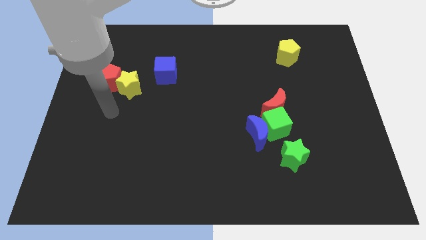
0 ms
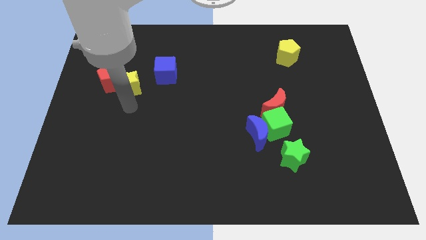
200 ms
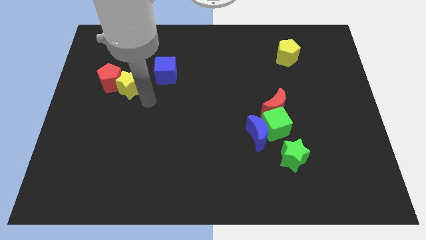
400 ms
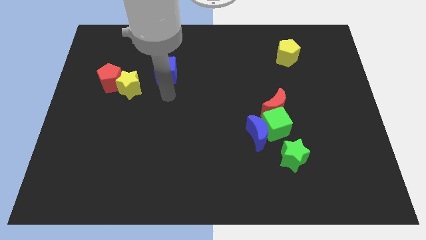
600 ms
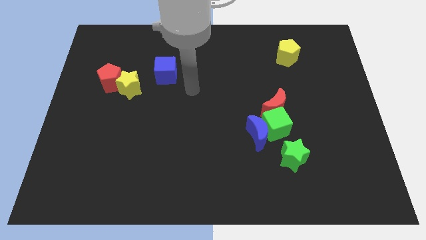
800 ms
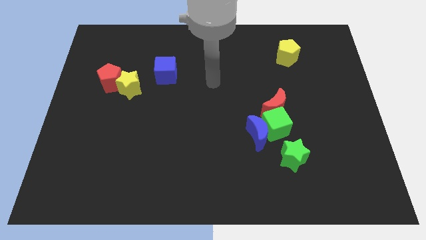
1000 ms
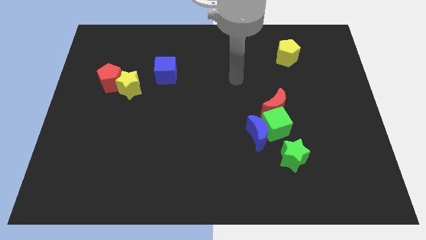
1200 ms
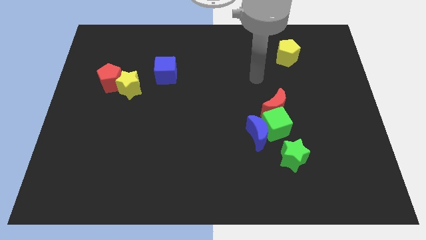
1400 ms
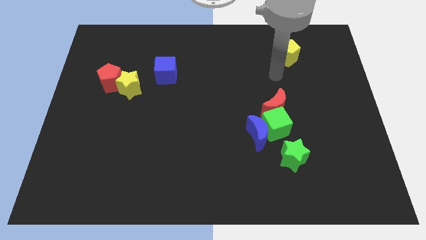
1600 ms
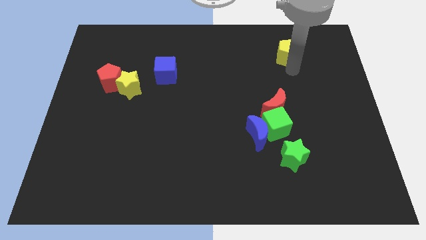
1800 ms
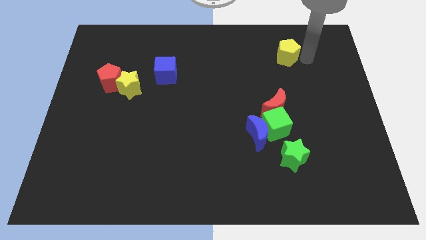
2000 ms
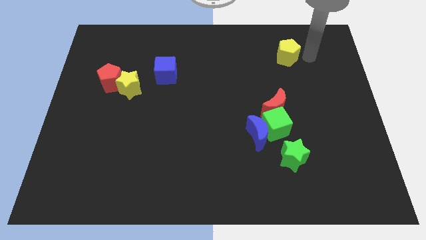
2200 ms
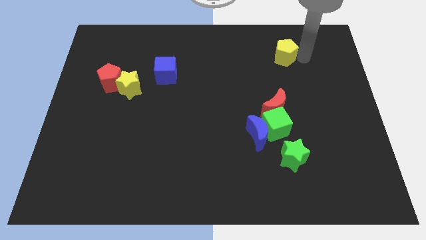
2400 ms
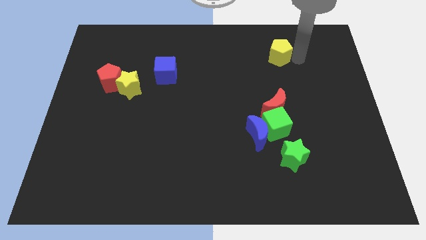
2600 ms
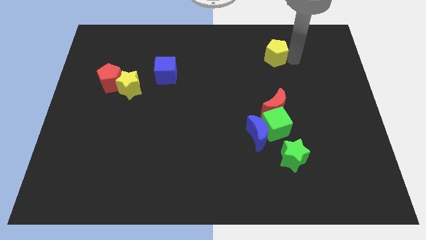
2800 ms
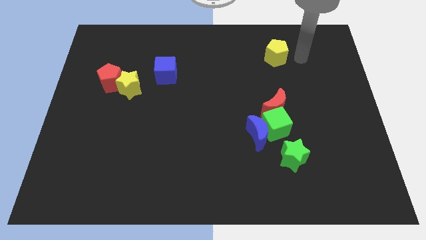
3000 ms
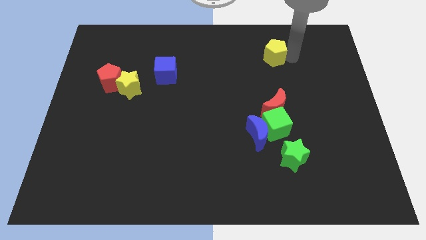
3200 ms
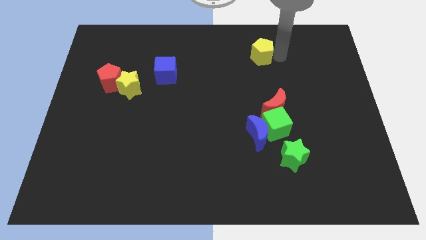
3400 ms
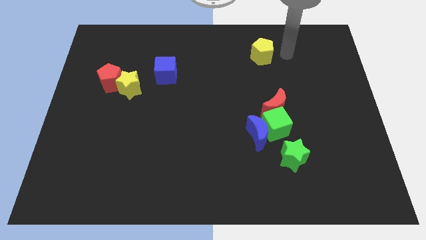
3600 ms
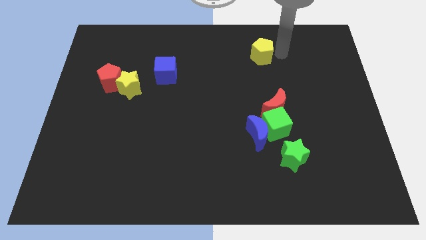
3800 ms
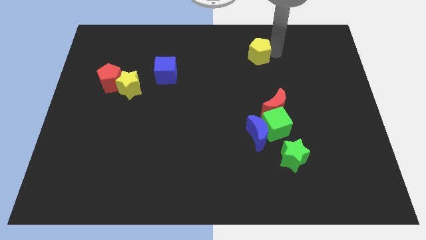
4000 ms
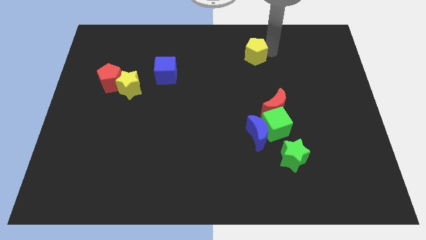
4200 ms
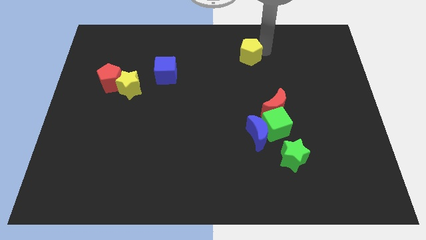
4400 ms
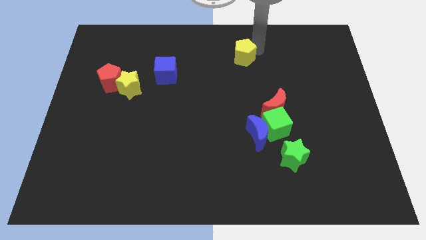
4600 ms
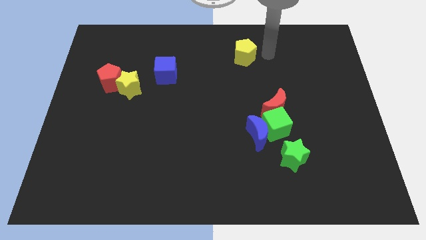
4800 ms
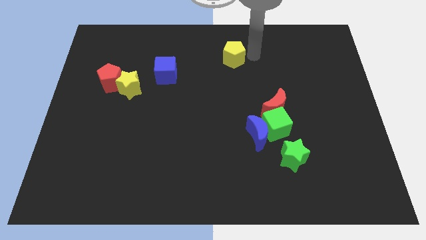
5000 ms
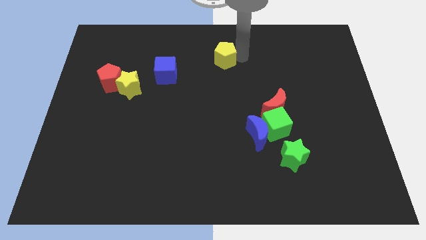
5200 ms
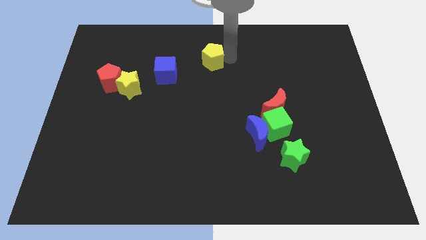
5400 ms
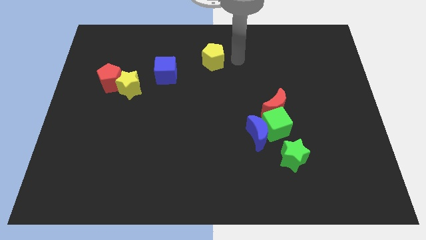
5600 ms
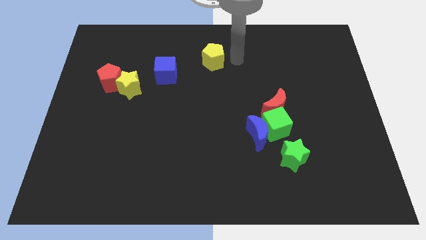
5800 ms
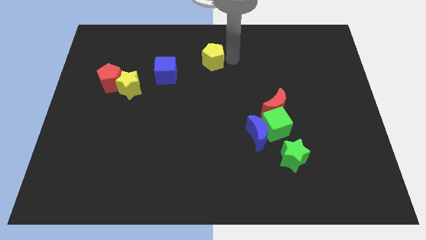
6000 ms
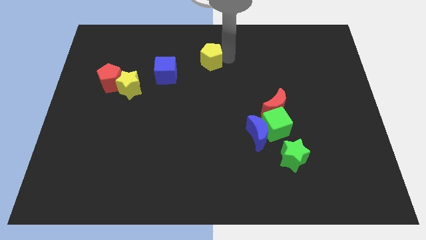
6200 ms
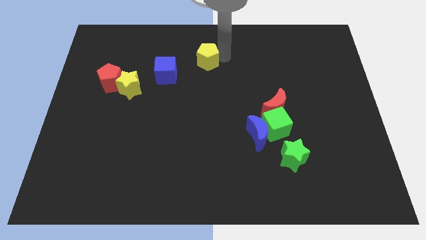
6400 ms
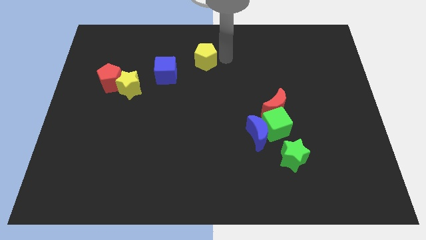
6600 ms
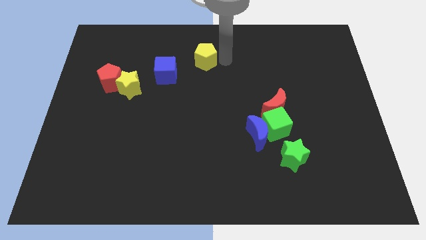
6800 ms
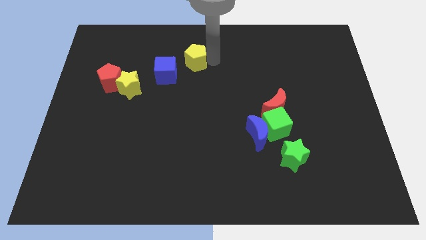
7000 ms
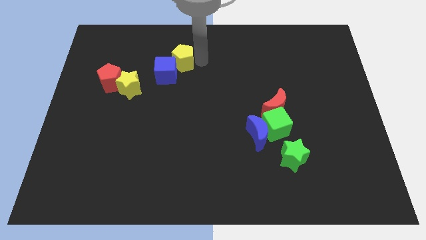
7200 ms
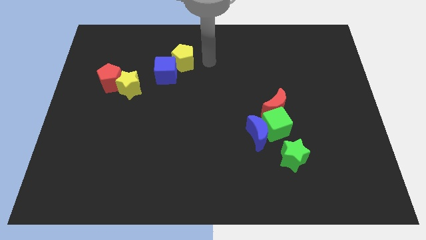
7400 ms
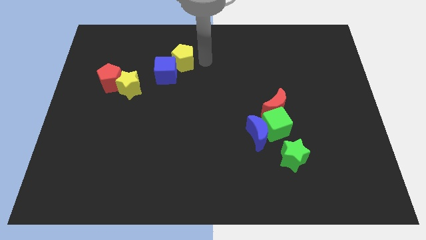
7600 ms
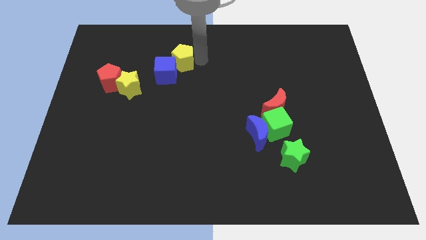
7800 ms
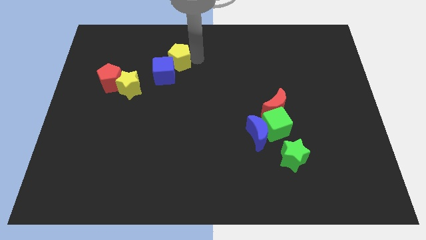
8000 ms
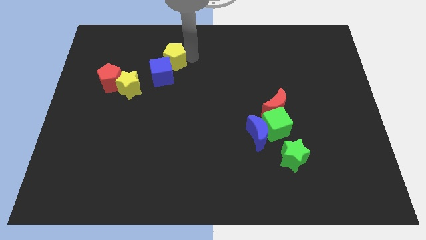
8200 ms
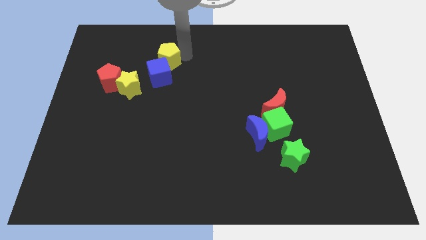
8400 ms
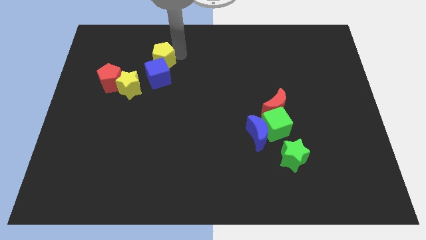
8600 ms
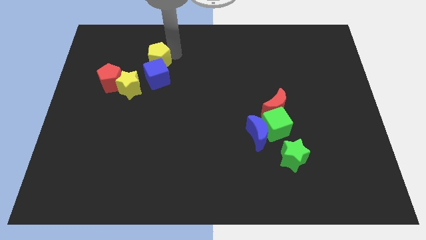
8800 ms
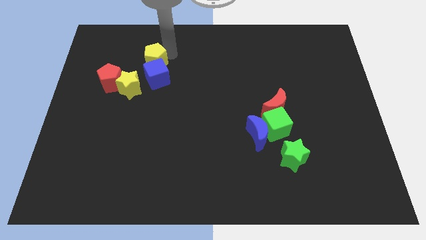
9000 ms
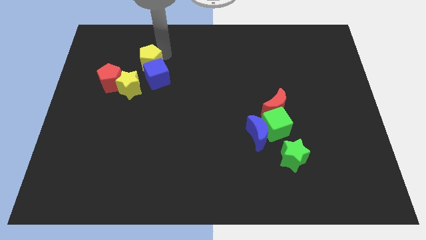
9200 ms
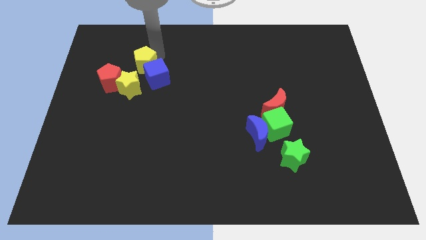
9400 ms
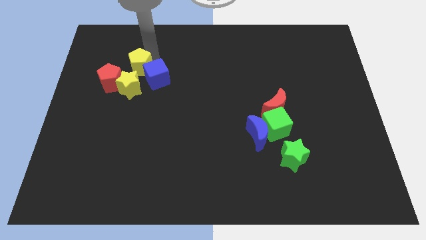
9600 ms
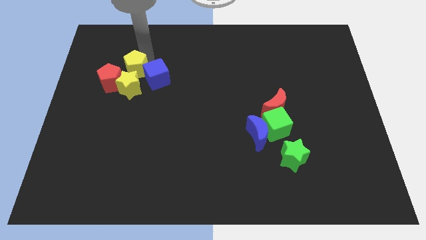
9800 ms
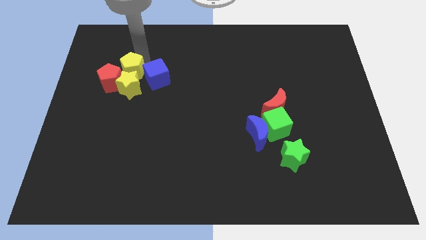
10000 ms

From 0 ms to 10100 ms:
put the yellow pentagon next to the red pentagon

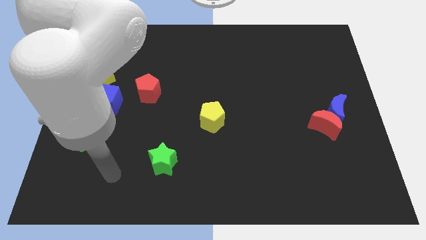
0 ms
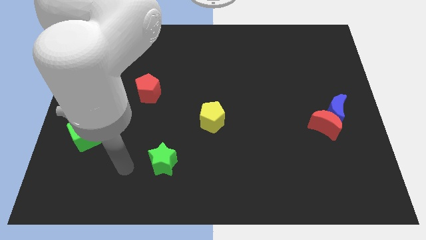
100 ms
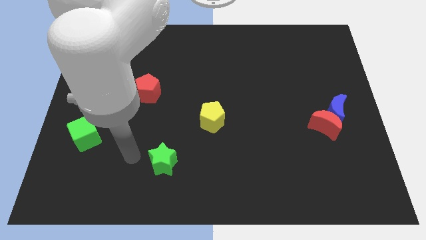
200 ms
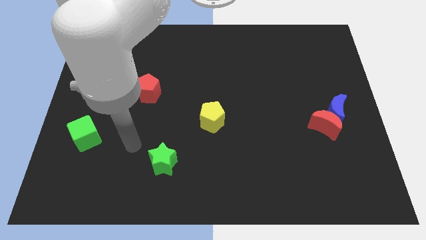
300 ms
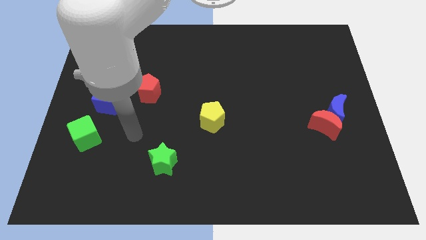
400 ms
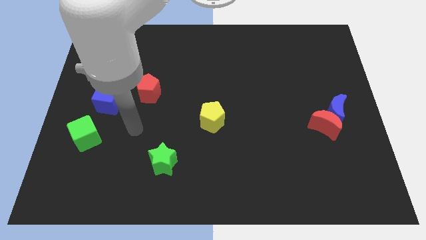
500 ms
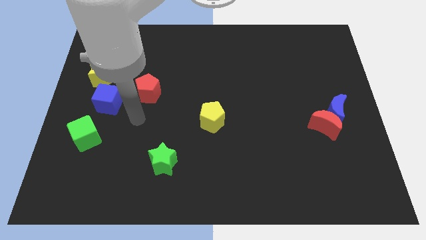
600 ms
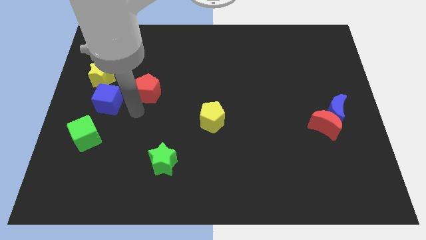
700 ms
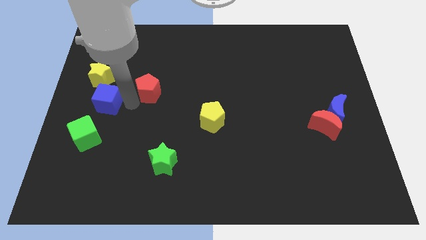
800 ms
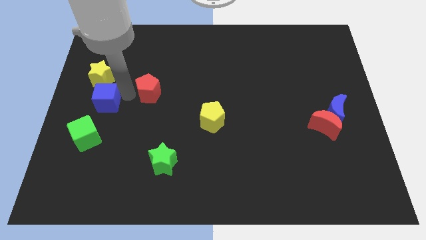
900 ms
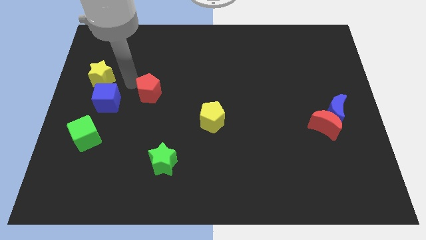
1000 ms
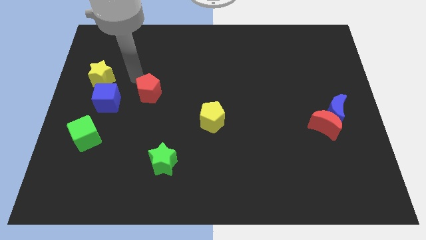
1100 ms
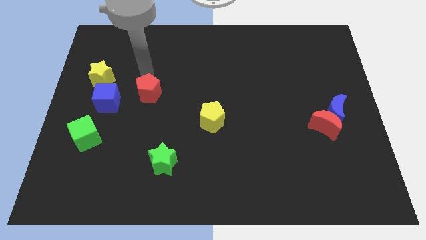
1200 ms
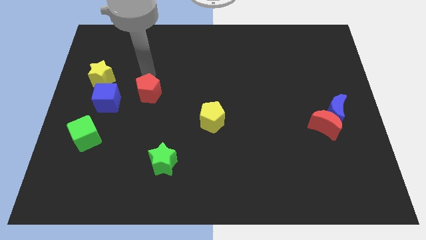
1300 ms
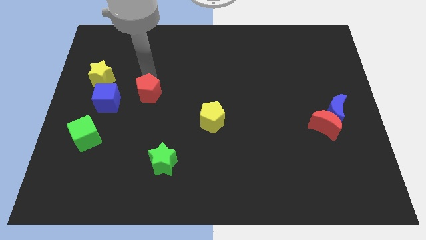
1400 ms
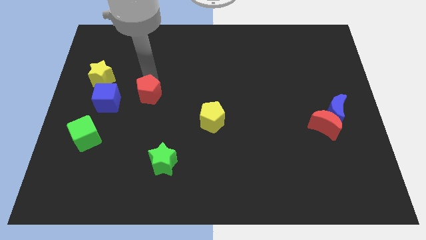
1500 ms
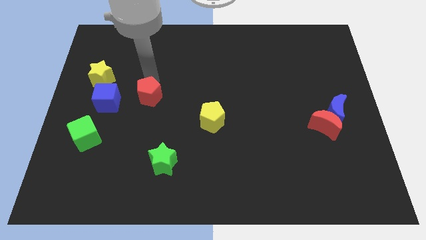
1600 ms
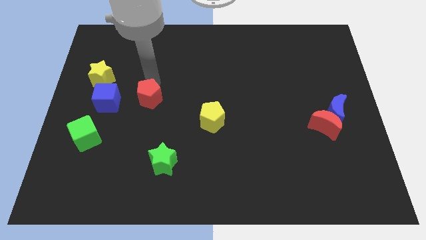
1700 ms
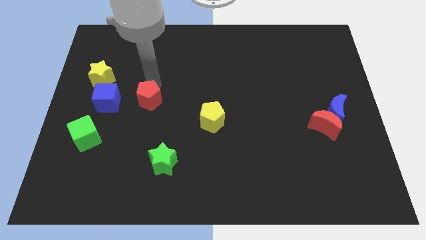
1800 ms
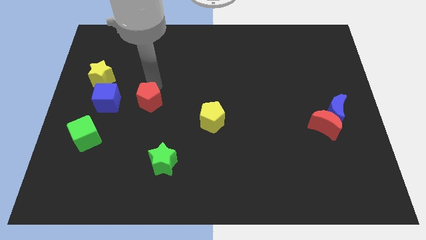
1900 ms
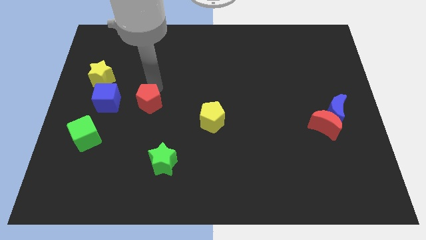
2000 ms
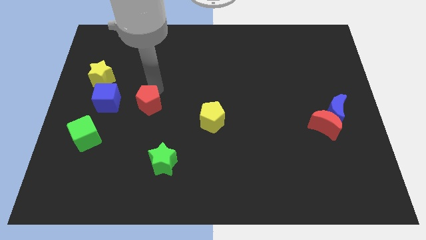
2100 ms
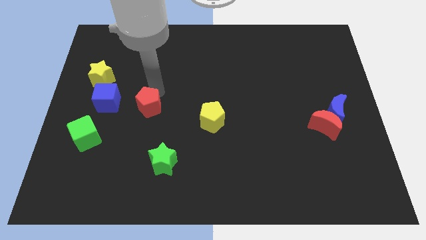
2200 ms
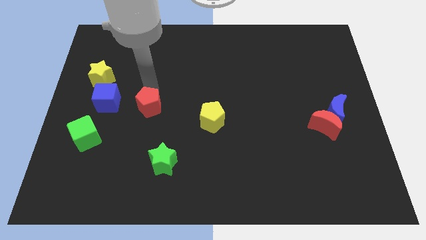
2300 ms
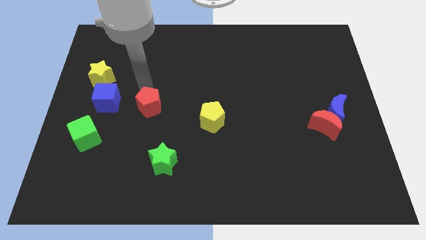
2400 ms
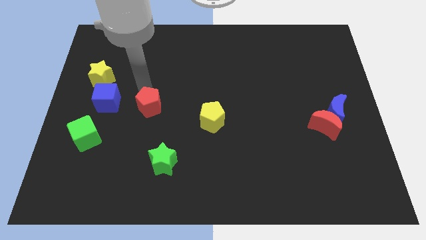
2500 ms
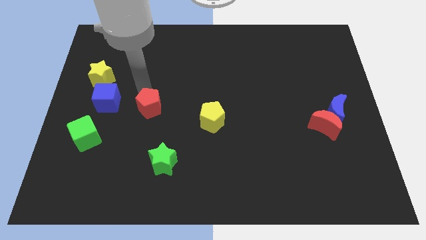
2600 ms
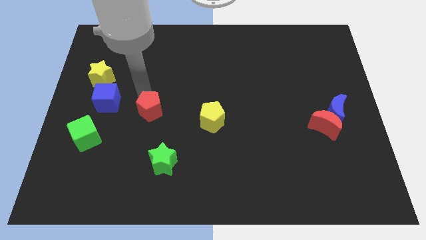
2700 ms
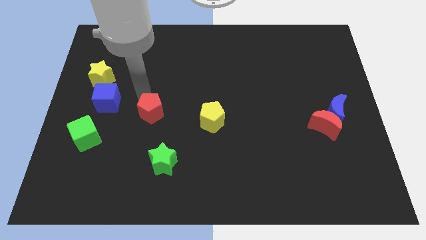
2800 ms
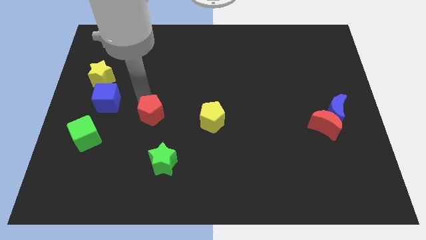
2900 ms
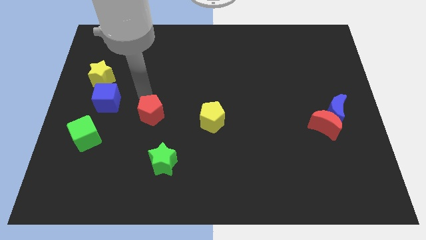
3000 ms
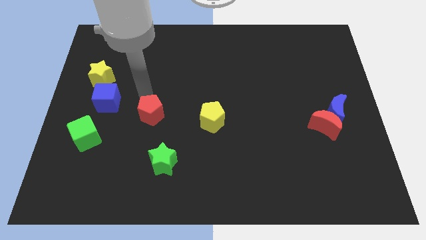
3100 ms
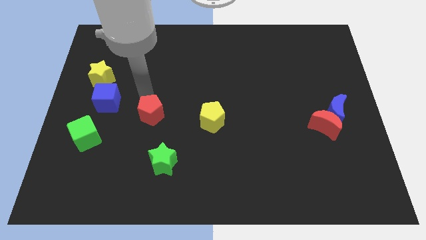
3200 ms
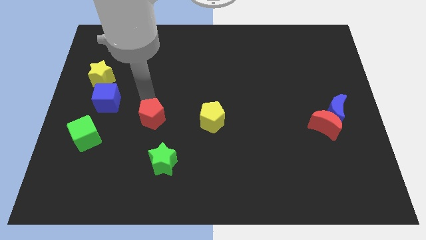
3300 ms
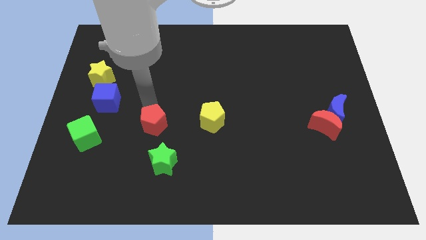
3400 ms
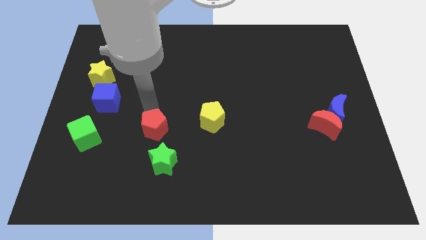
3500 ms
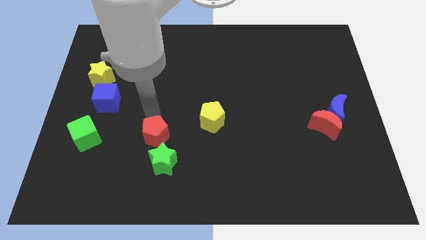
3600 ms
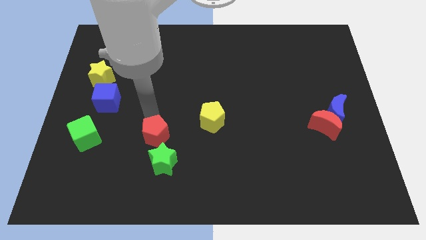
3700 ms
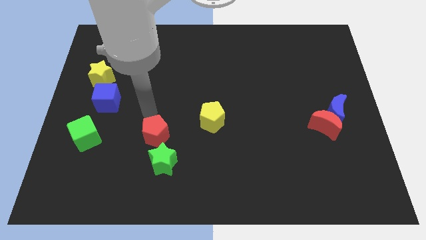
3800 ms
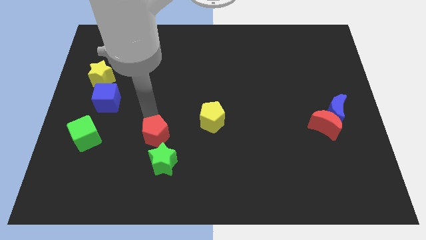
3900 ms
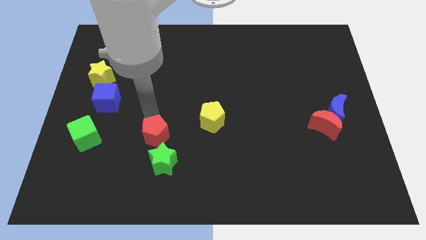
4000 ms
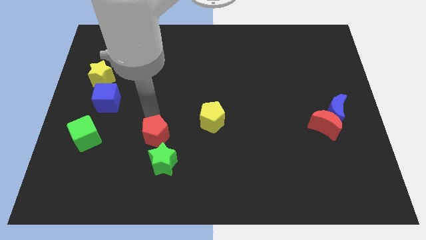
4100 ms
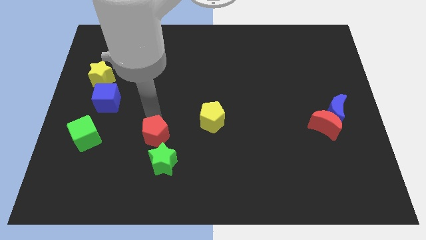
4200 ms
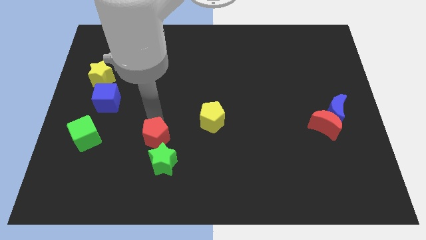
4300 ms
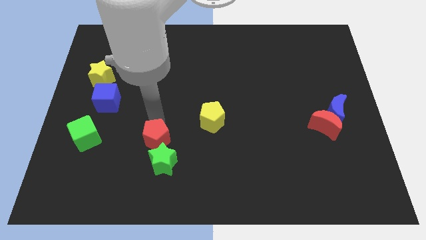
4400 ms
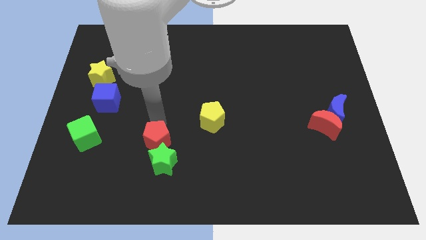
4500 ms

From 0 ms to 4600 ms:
slide the red pentagon to the green star
